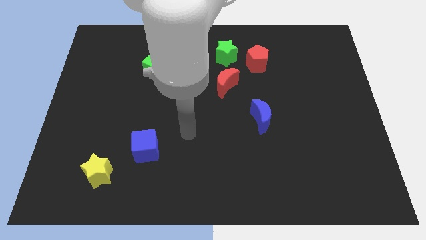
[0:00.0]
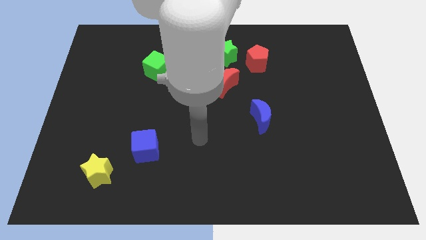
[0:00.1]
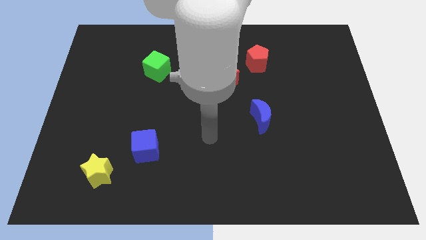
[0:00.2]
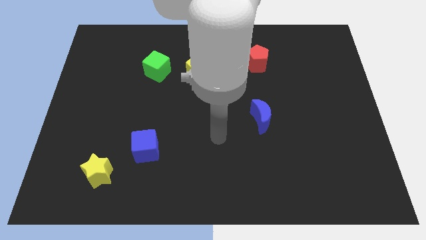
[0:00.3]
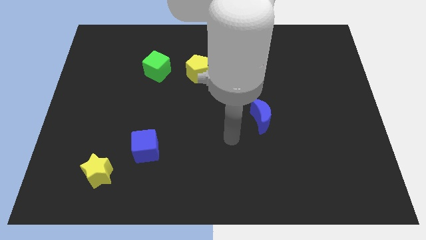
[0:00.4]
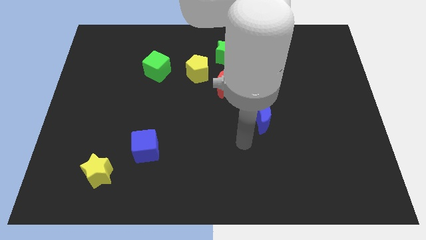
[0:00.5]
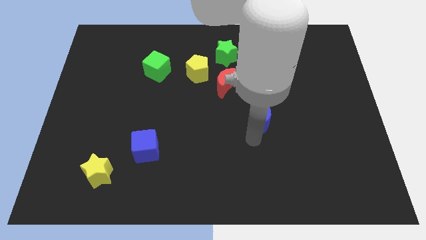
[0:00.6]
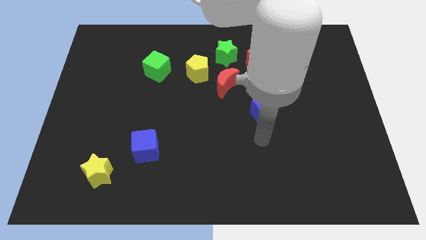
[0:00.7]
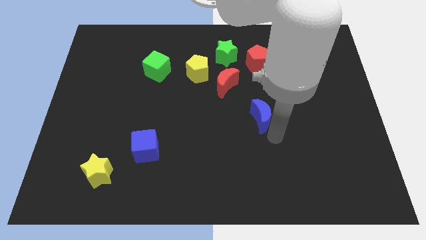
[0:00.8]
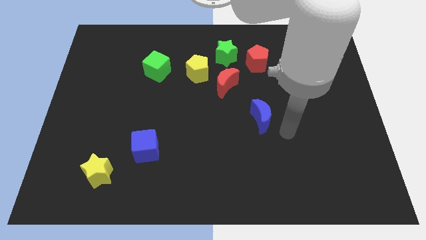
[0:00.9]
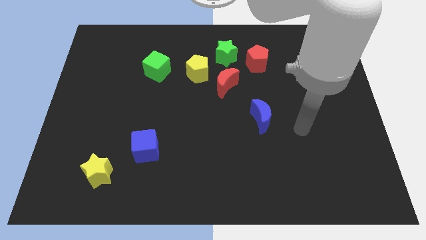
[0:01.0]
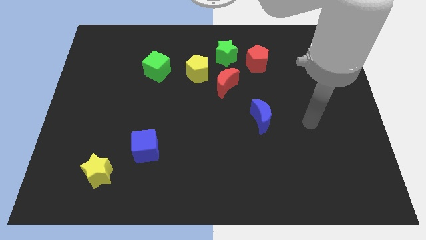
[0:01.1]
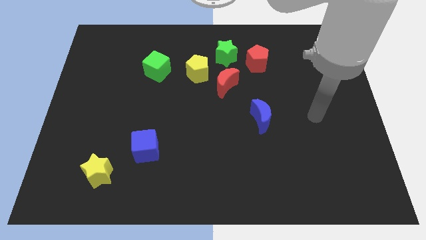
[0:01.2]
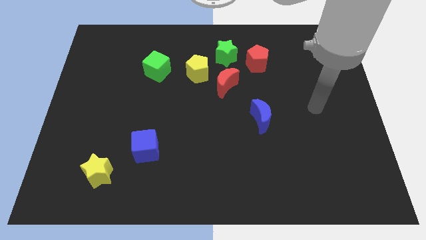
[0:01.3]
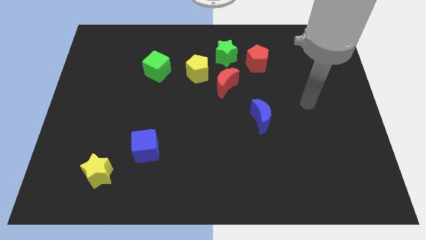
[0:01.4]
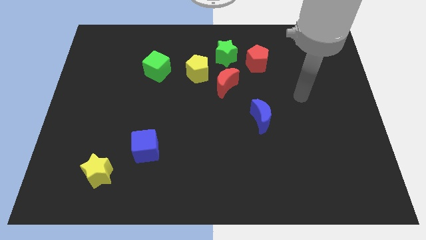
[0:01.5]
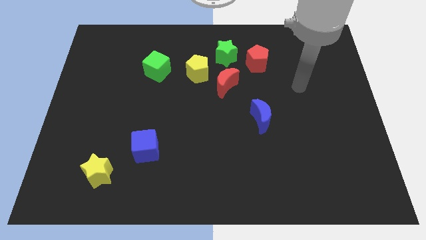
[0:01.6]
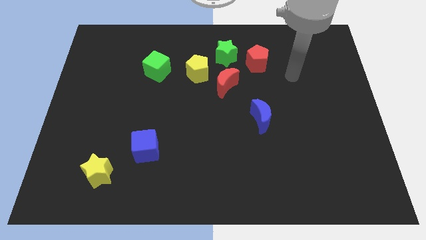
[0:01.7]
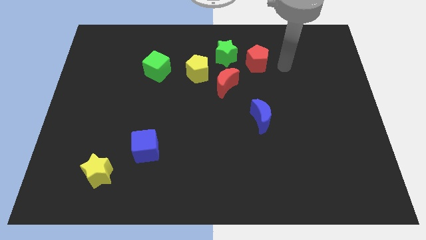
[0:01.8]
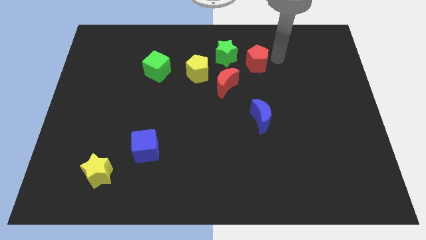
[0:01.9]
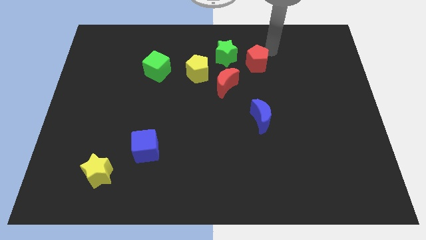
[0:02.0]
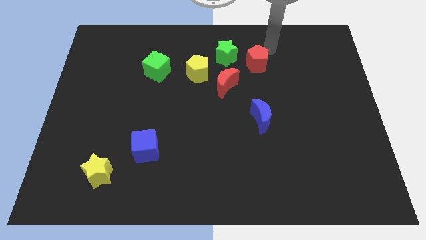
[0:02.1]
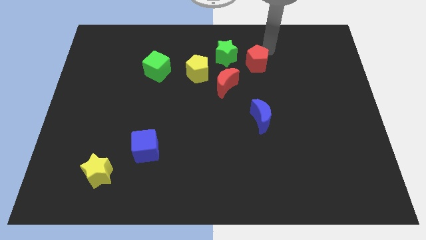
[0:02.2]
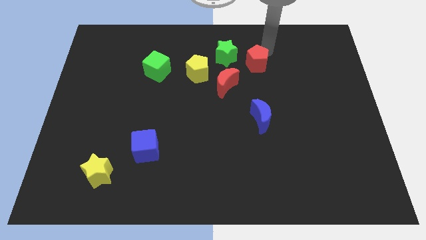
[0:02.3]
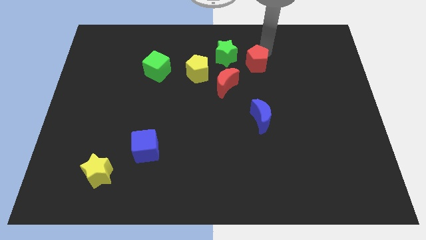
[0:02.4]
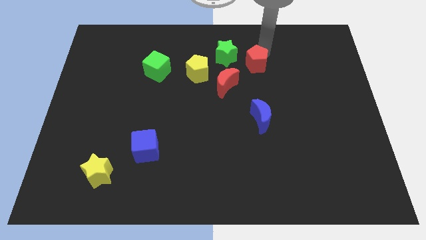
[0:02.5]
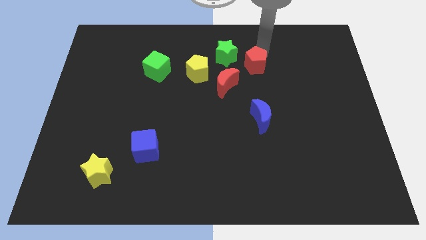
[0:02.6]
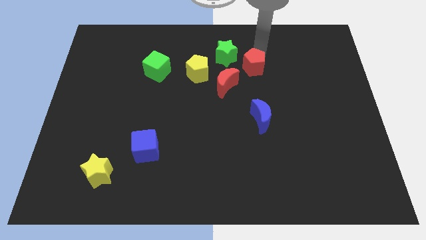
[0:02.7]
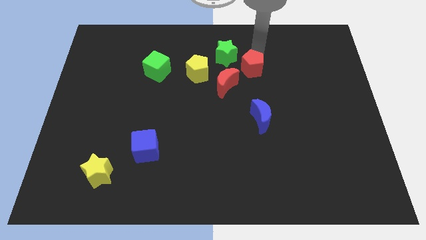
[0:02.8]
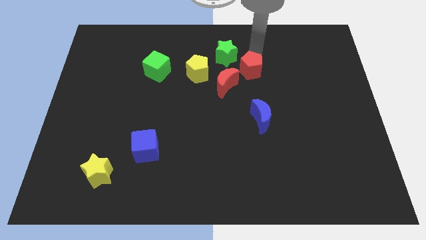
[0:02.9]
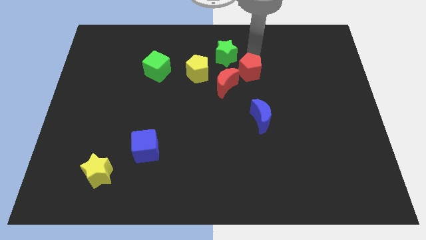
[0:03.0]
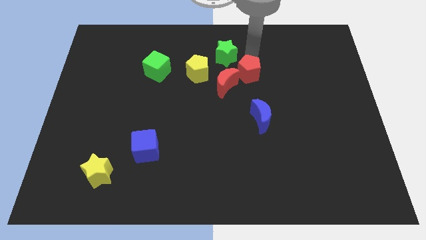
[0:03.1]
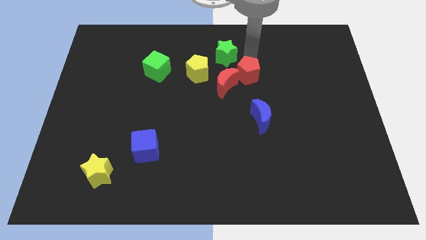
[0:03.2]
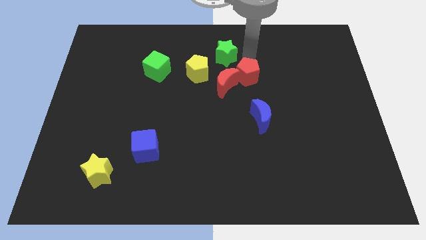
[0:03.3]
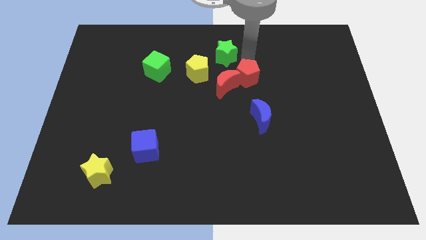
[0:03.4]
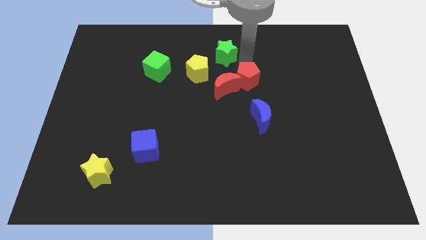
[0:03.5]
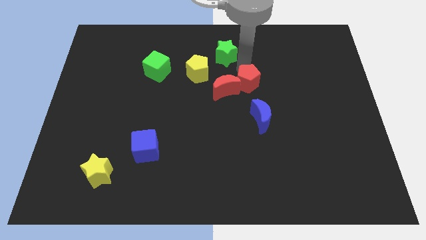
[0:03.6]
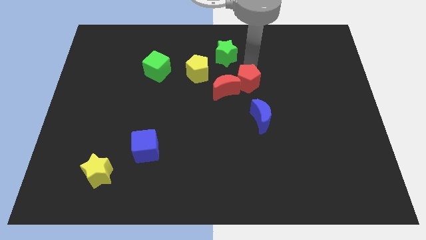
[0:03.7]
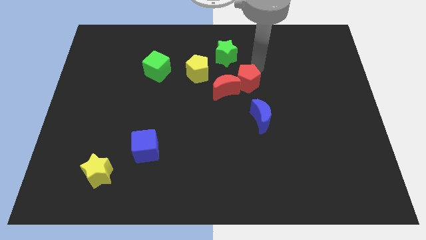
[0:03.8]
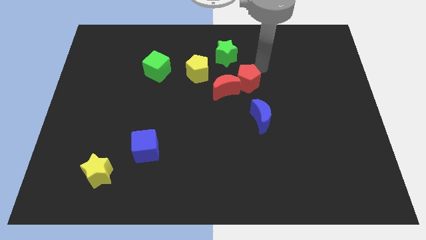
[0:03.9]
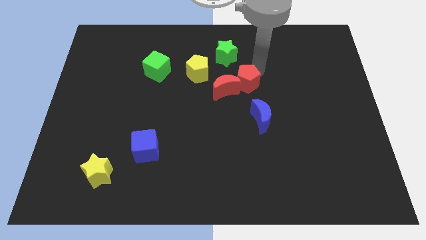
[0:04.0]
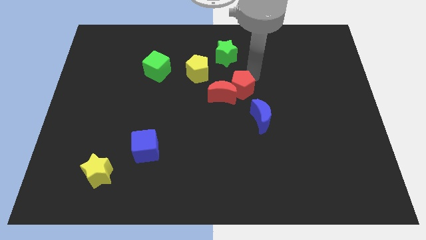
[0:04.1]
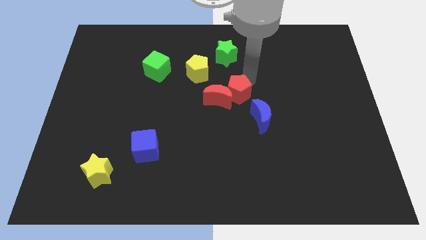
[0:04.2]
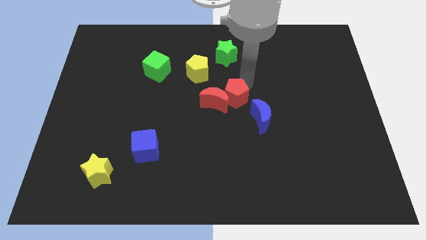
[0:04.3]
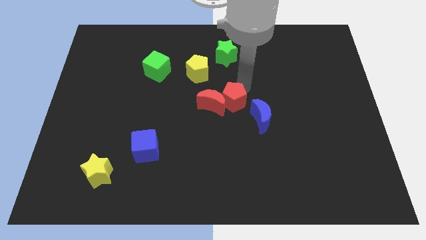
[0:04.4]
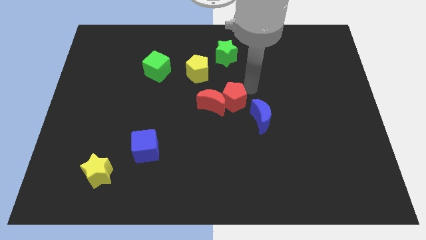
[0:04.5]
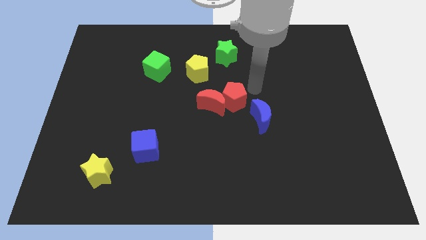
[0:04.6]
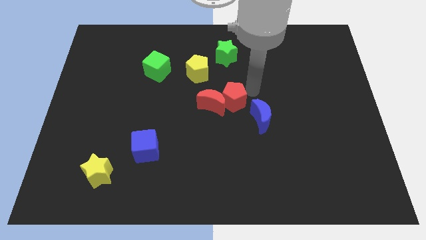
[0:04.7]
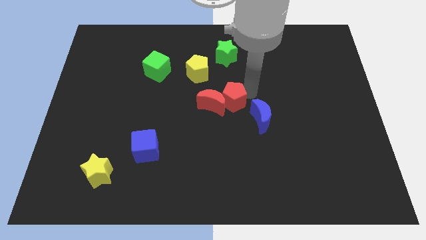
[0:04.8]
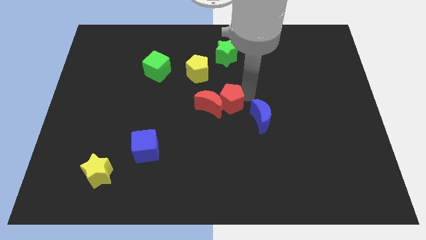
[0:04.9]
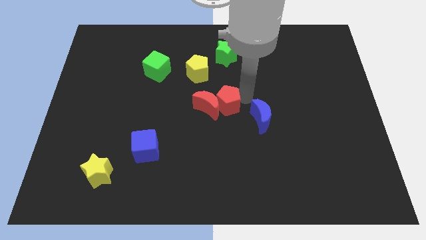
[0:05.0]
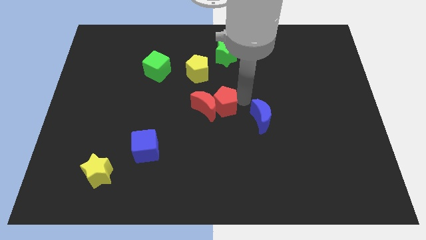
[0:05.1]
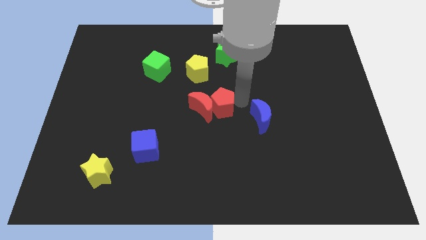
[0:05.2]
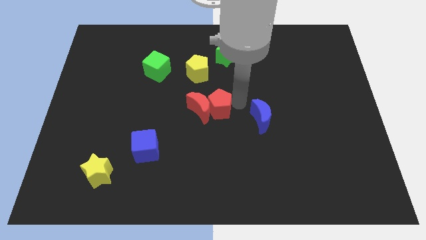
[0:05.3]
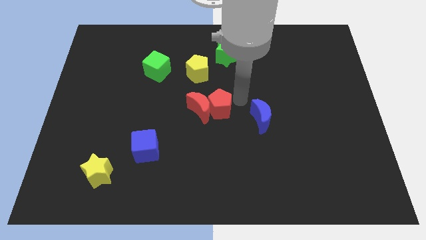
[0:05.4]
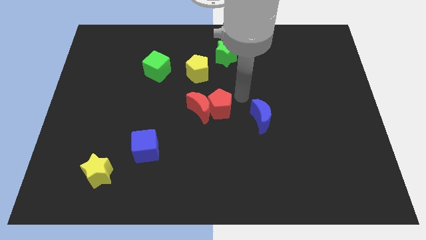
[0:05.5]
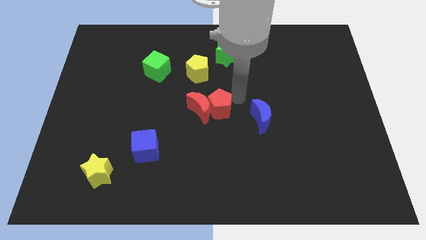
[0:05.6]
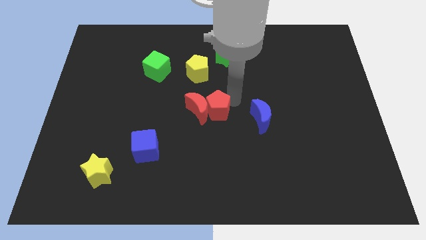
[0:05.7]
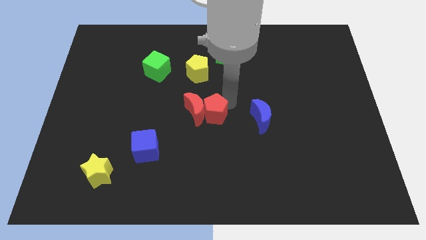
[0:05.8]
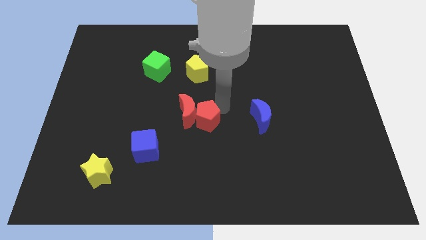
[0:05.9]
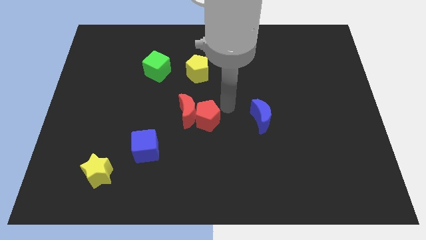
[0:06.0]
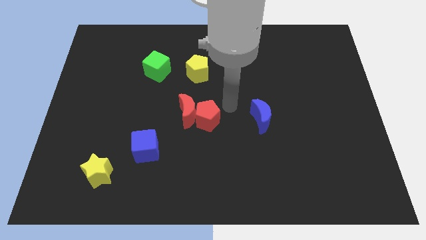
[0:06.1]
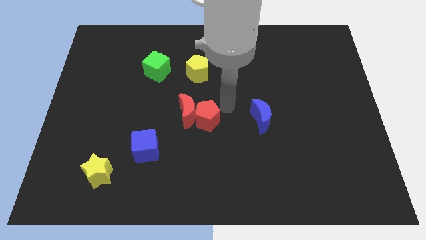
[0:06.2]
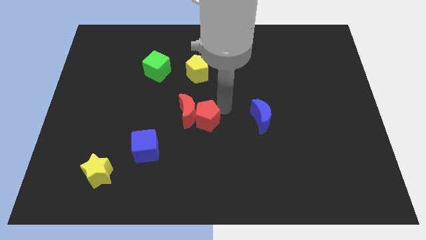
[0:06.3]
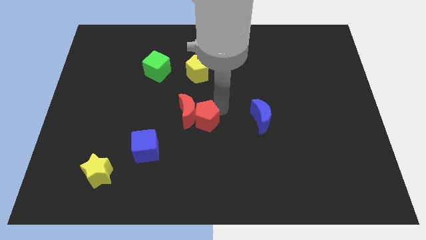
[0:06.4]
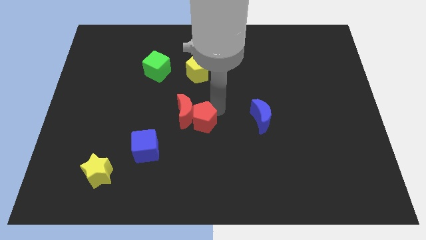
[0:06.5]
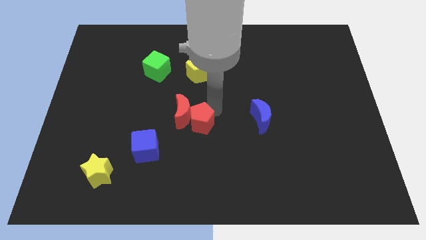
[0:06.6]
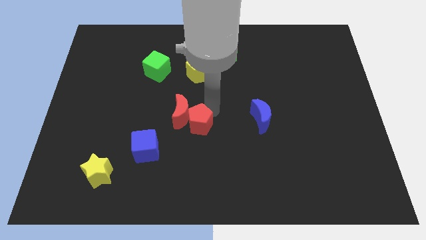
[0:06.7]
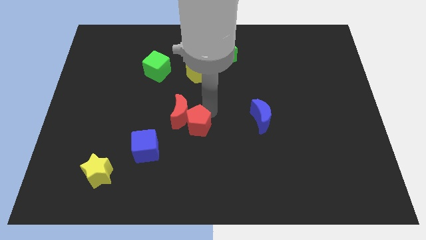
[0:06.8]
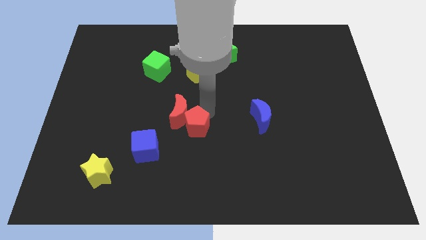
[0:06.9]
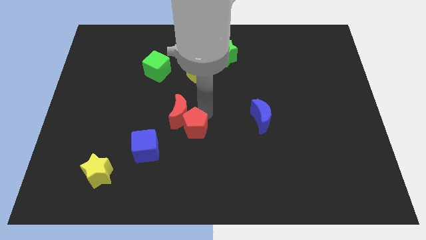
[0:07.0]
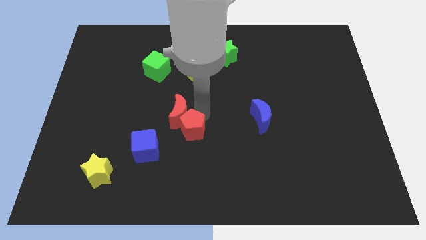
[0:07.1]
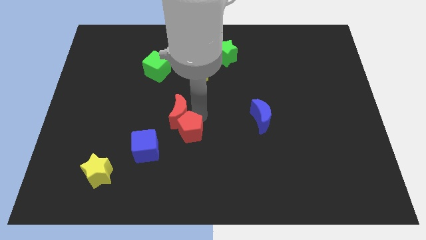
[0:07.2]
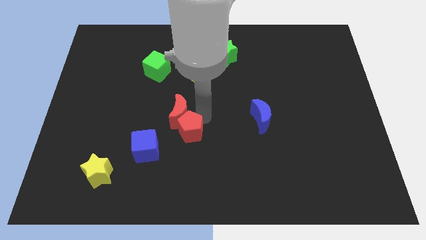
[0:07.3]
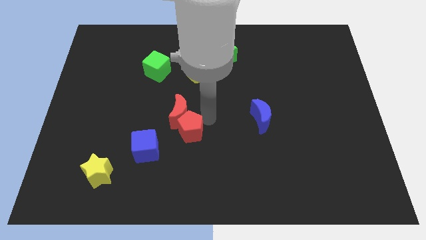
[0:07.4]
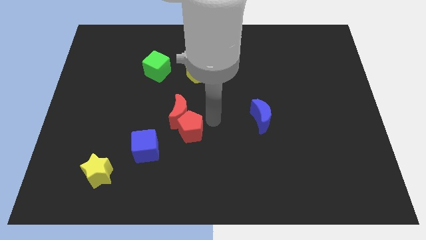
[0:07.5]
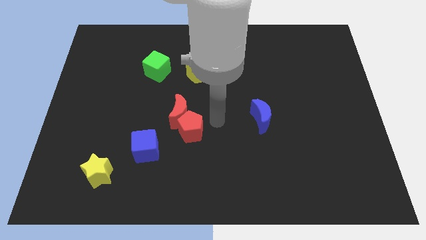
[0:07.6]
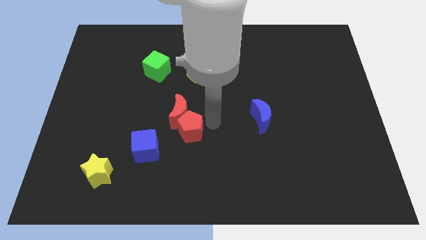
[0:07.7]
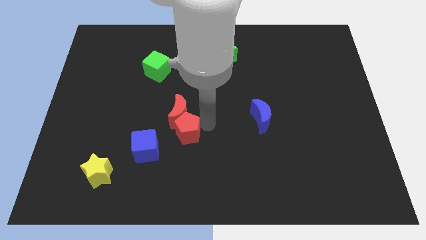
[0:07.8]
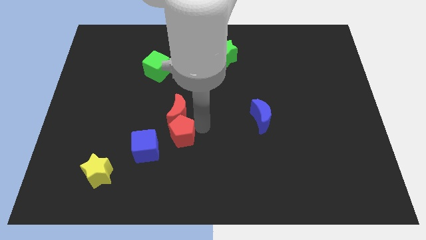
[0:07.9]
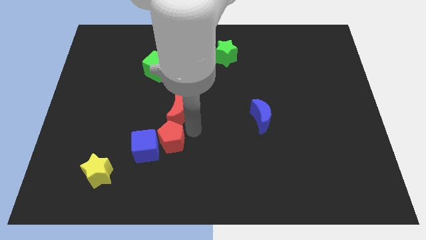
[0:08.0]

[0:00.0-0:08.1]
put the red pentagon to the blue cube
